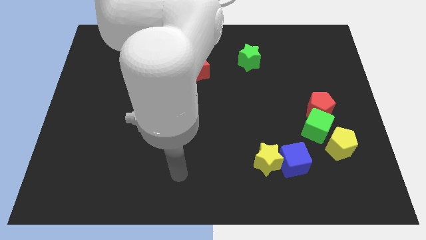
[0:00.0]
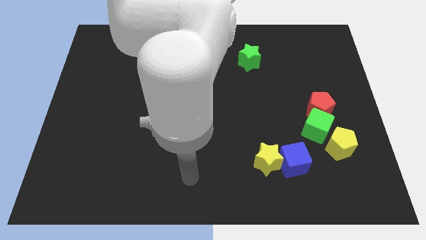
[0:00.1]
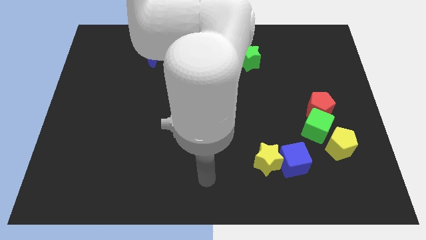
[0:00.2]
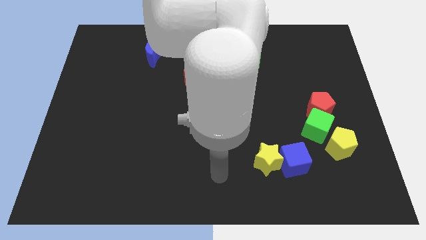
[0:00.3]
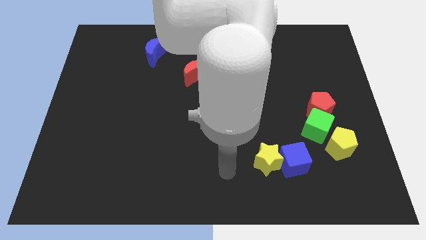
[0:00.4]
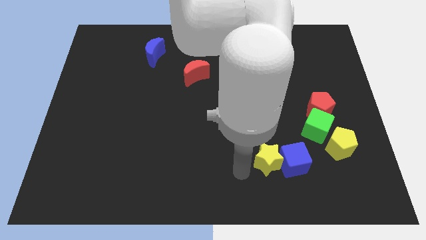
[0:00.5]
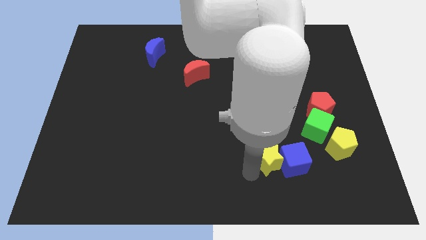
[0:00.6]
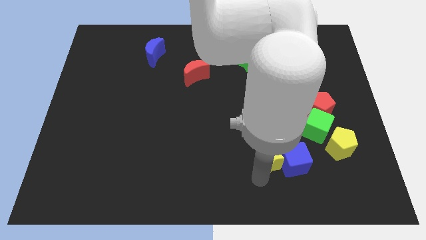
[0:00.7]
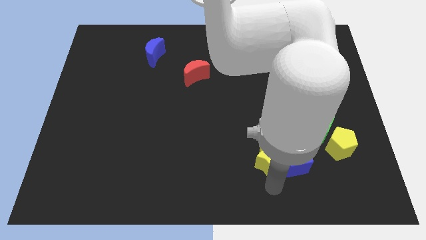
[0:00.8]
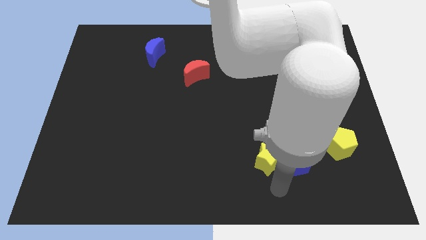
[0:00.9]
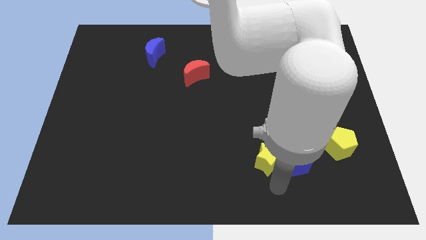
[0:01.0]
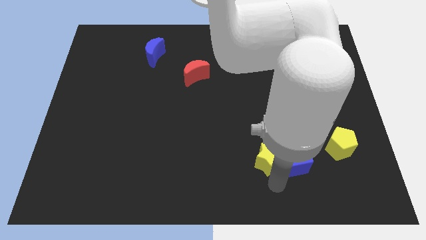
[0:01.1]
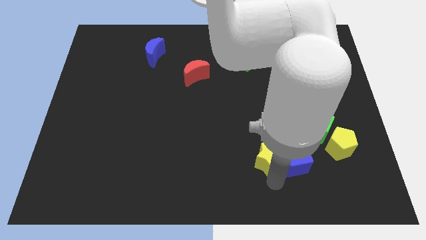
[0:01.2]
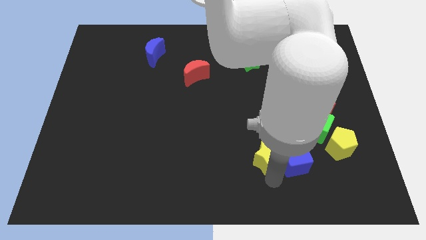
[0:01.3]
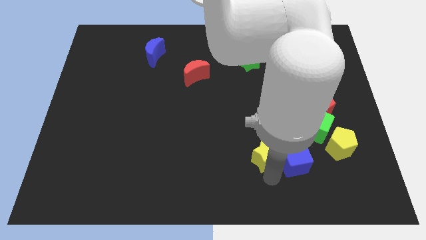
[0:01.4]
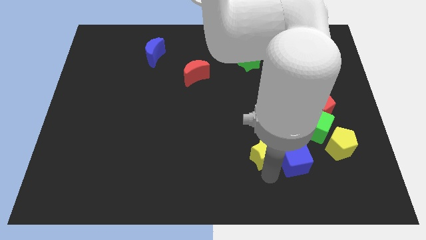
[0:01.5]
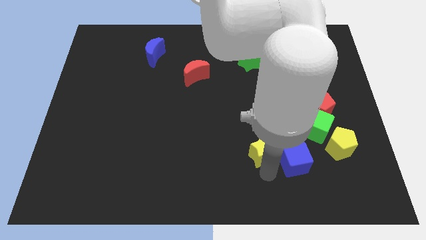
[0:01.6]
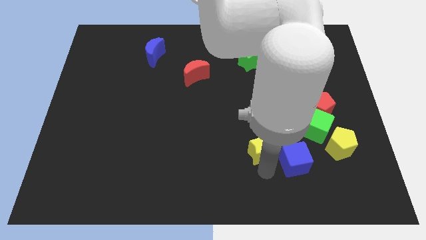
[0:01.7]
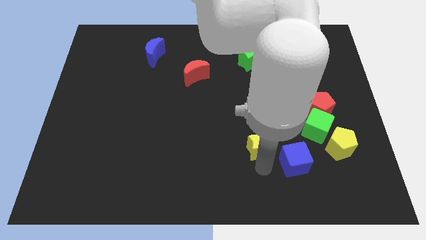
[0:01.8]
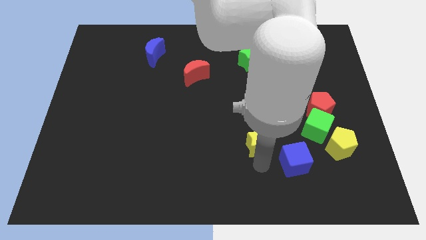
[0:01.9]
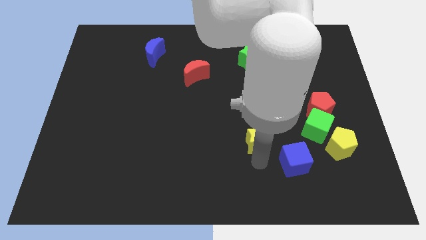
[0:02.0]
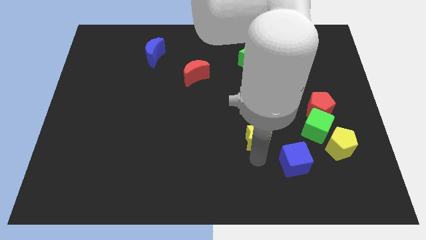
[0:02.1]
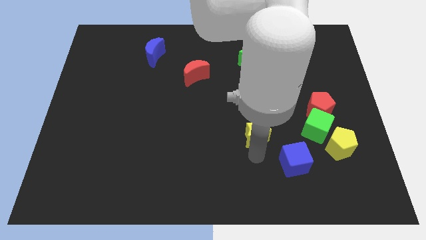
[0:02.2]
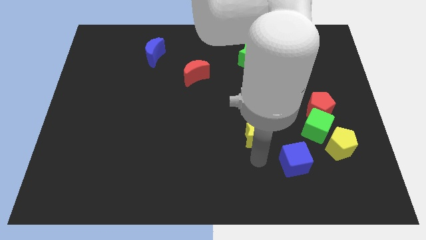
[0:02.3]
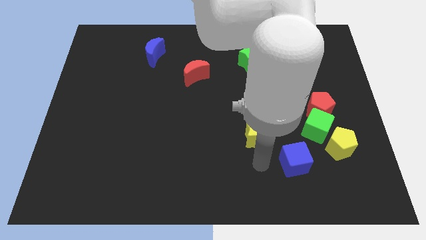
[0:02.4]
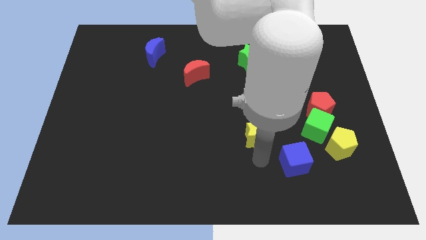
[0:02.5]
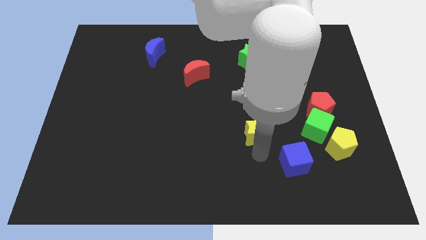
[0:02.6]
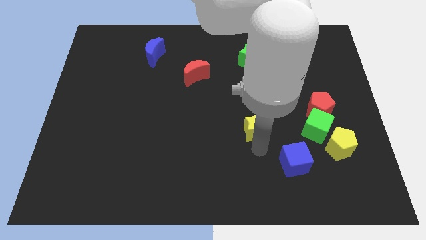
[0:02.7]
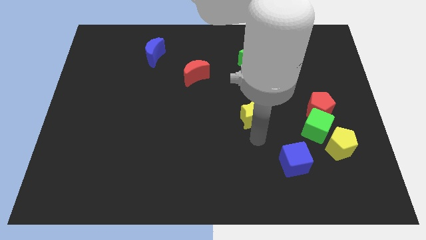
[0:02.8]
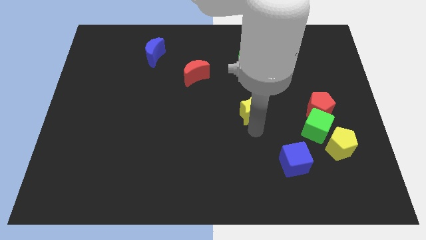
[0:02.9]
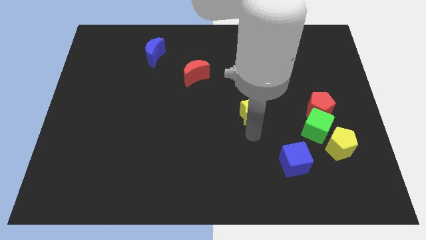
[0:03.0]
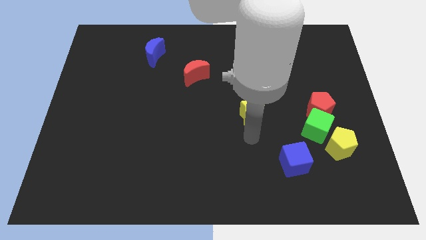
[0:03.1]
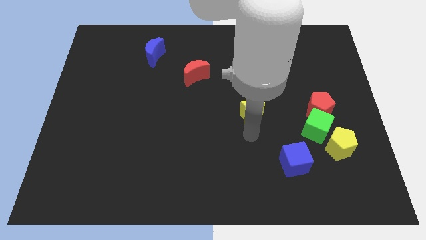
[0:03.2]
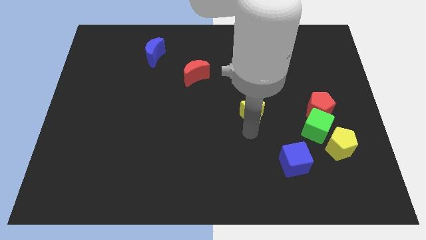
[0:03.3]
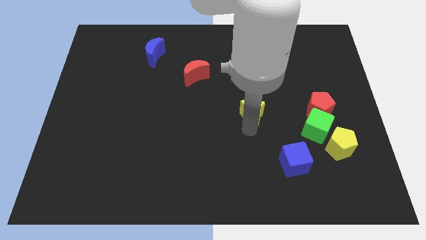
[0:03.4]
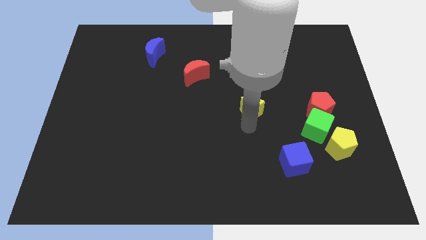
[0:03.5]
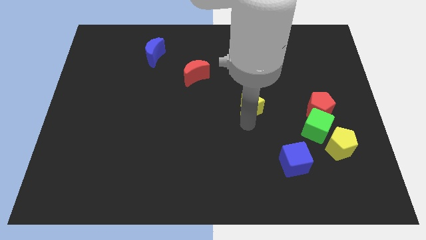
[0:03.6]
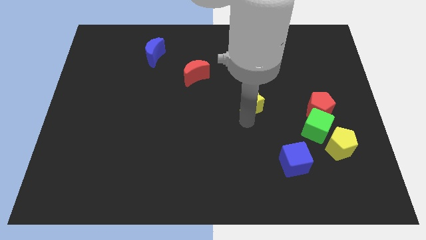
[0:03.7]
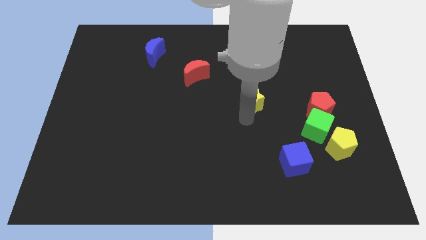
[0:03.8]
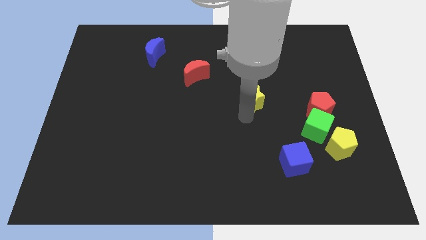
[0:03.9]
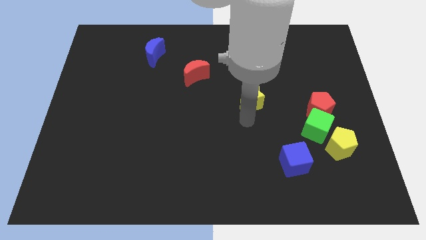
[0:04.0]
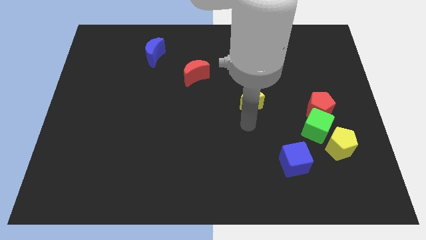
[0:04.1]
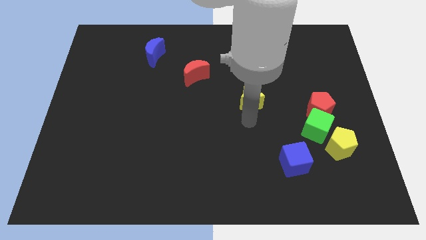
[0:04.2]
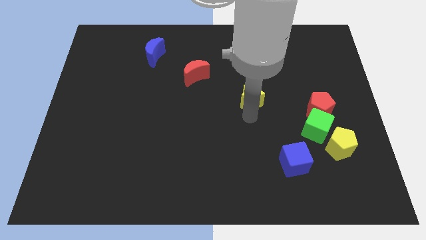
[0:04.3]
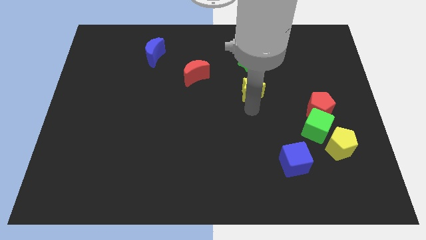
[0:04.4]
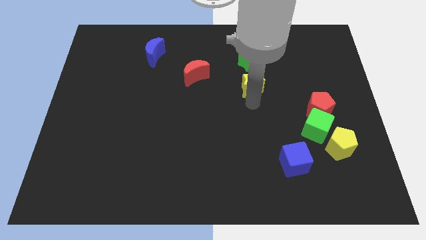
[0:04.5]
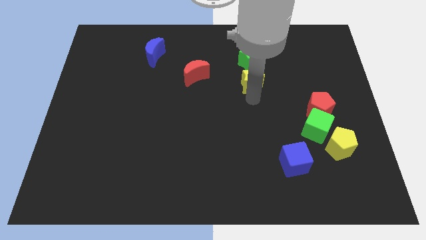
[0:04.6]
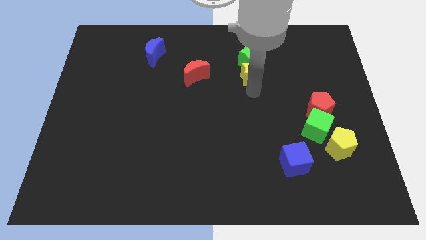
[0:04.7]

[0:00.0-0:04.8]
slide the yellow star to the green star

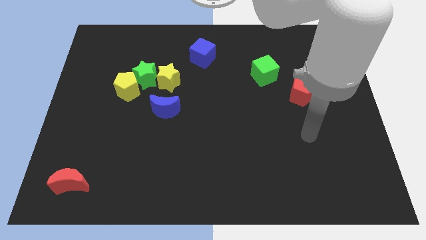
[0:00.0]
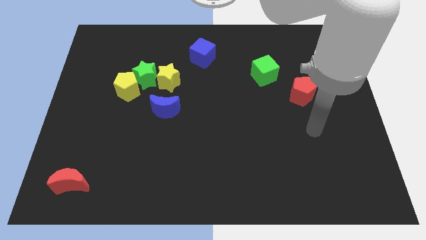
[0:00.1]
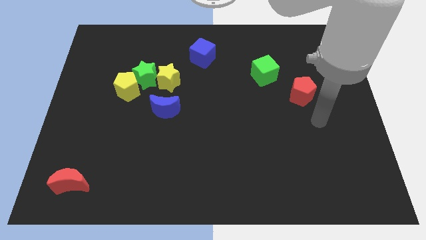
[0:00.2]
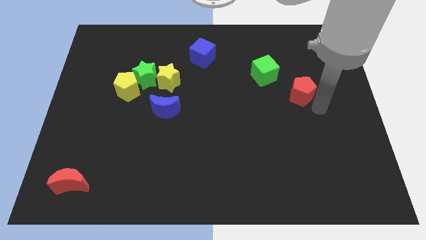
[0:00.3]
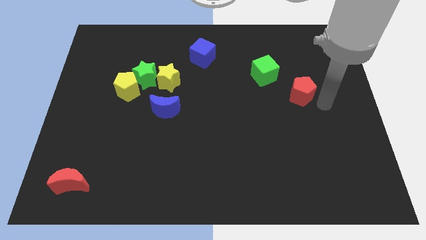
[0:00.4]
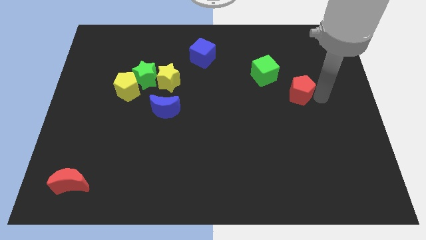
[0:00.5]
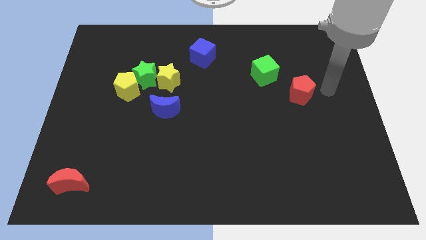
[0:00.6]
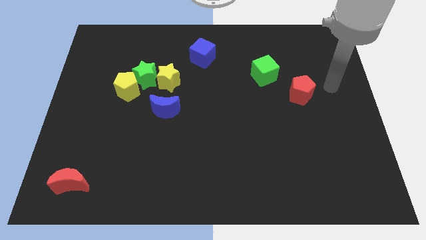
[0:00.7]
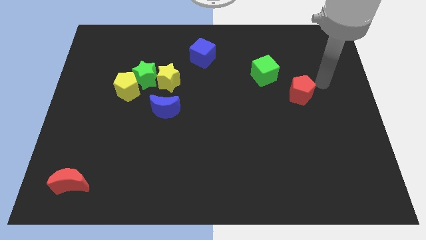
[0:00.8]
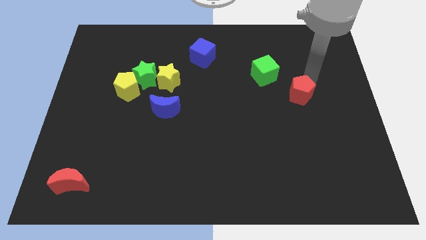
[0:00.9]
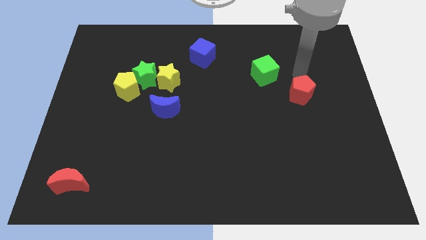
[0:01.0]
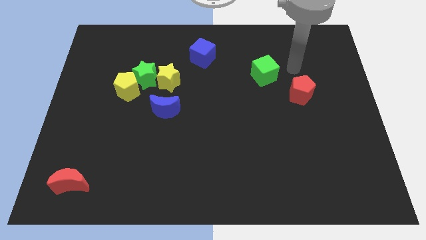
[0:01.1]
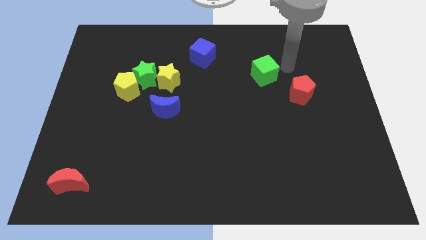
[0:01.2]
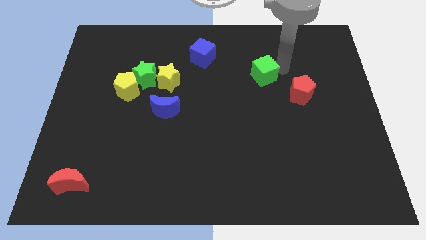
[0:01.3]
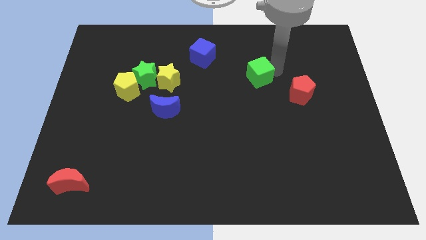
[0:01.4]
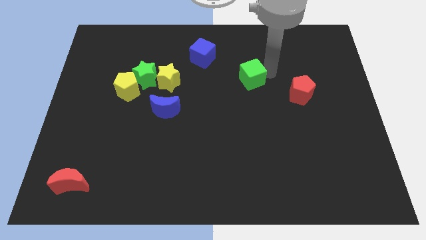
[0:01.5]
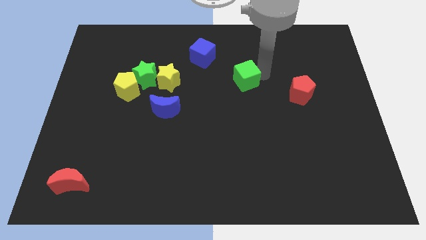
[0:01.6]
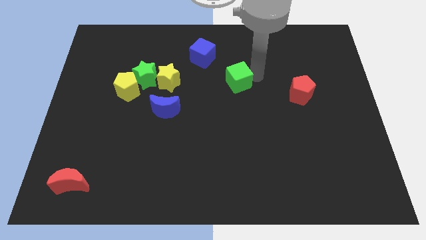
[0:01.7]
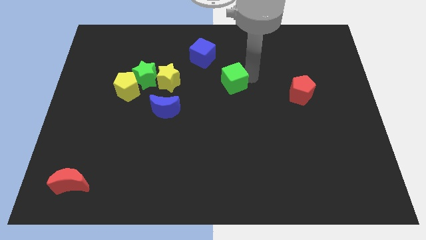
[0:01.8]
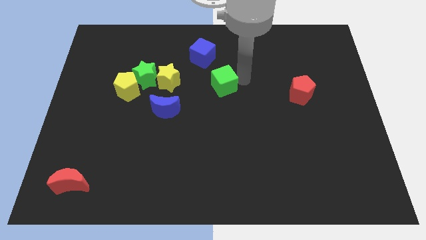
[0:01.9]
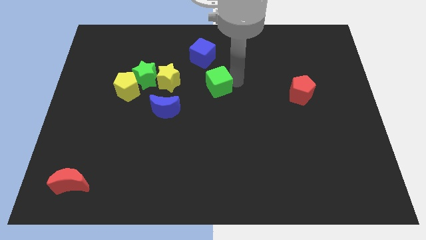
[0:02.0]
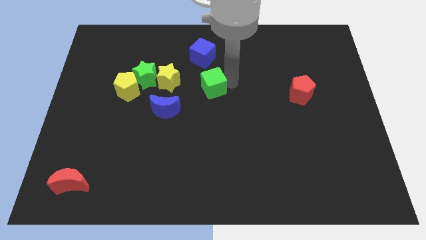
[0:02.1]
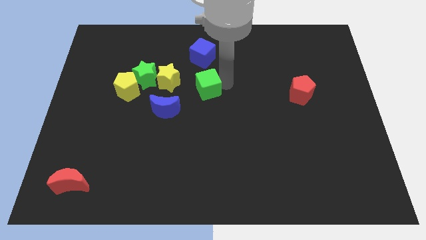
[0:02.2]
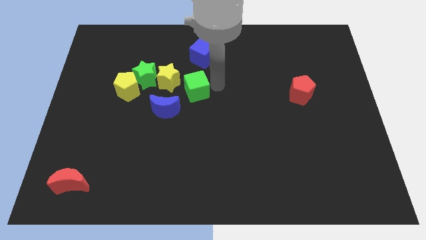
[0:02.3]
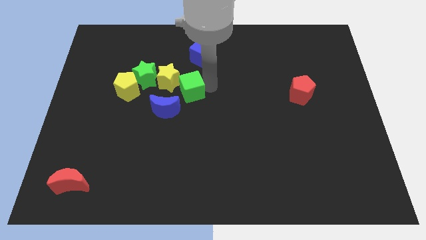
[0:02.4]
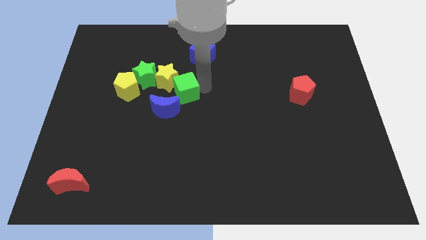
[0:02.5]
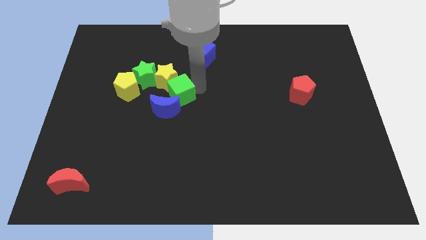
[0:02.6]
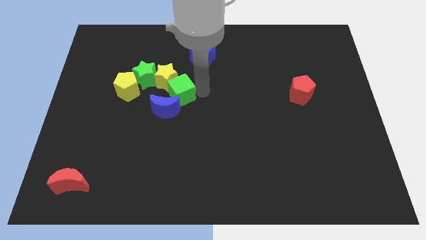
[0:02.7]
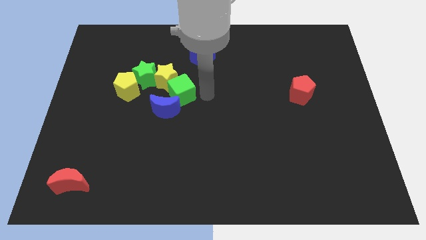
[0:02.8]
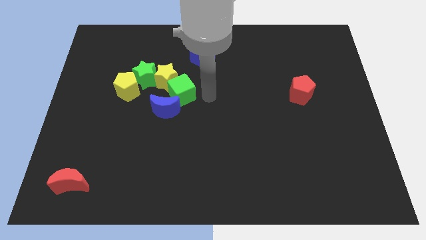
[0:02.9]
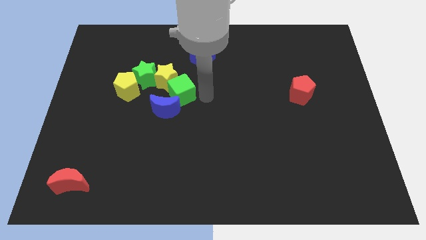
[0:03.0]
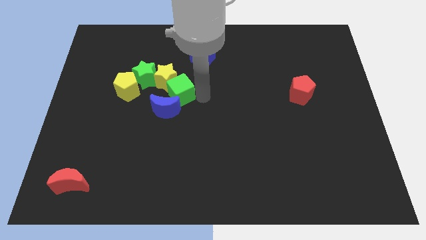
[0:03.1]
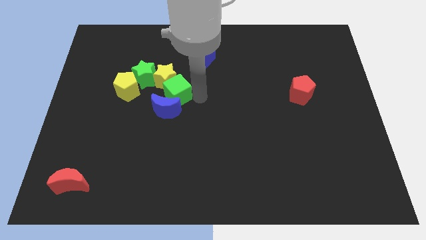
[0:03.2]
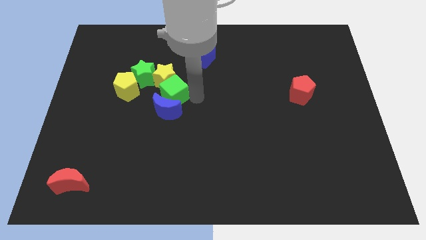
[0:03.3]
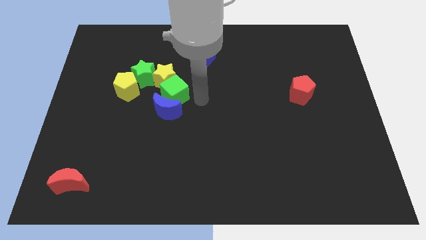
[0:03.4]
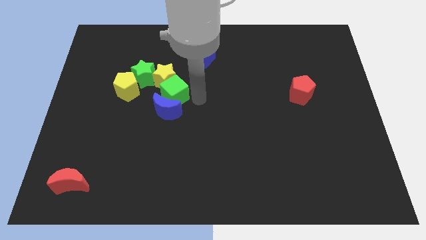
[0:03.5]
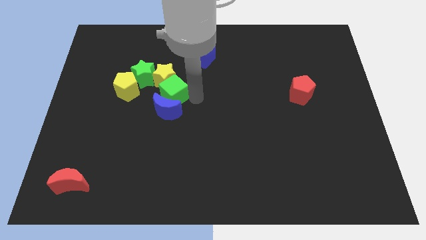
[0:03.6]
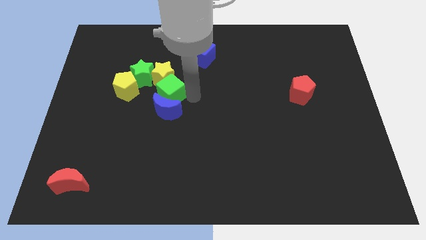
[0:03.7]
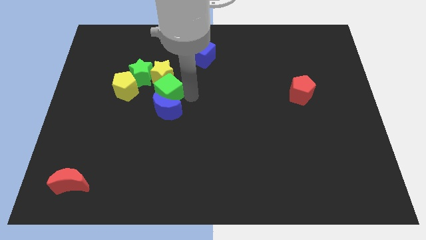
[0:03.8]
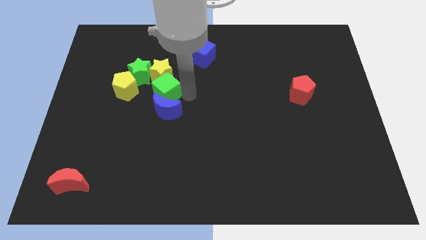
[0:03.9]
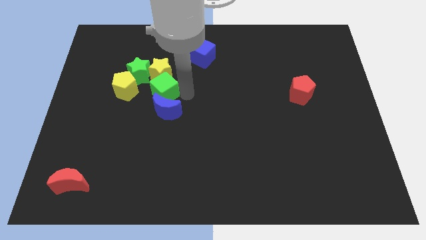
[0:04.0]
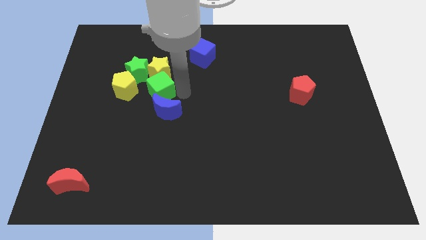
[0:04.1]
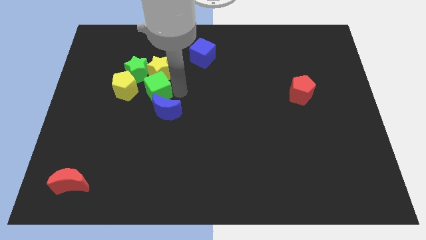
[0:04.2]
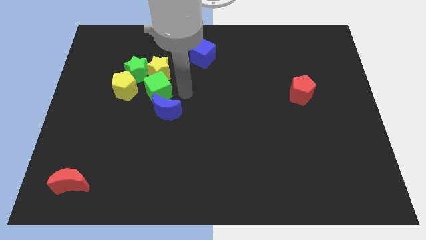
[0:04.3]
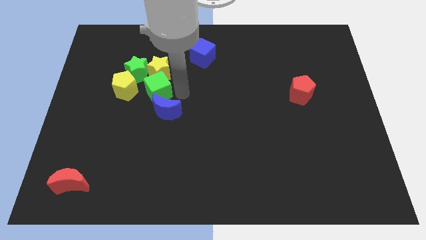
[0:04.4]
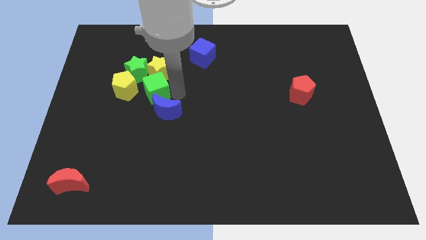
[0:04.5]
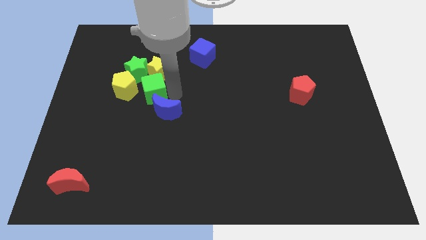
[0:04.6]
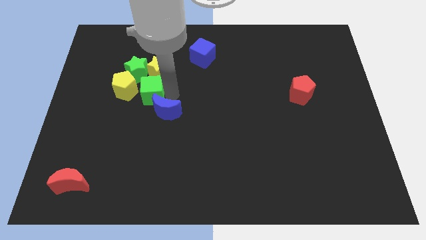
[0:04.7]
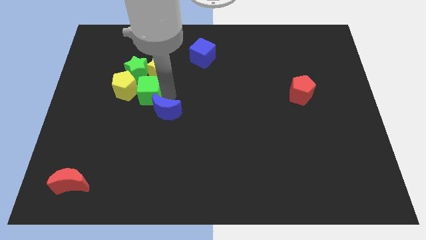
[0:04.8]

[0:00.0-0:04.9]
move the green cube close to the yellow pentagon
